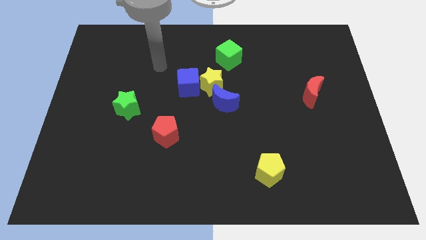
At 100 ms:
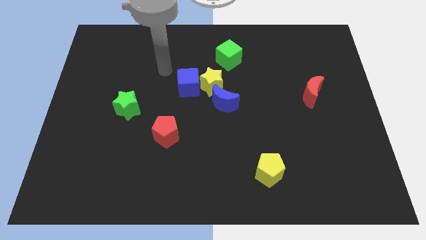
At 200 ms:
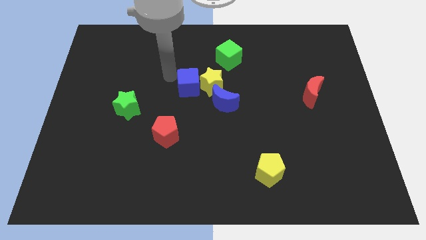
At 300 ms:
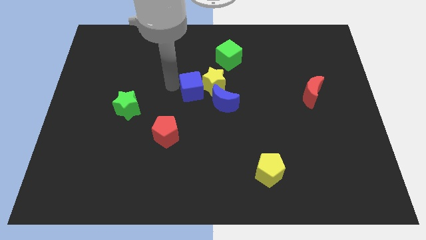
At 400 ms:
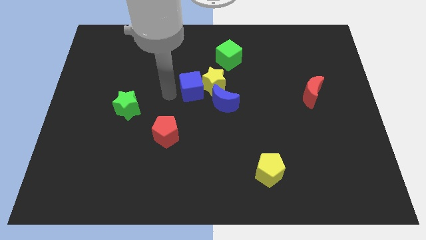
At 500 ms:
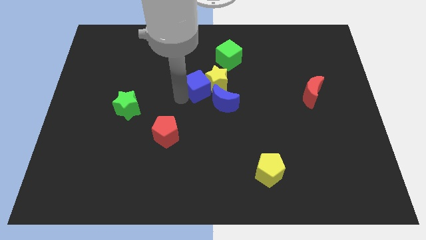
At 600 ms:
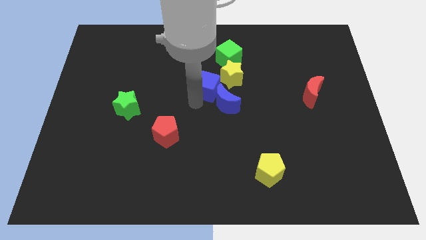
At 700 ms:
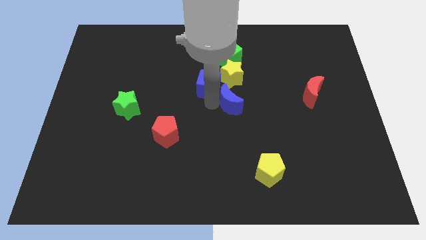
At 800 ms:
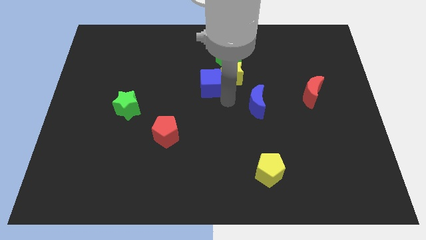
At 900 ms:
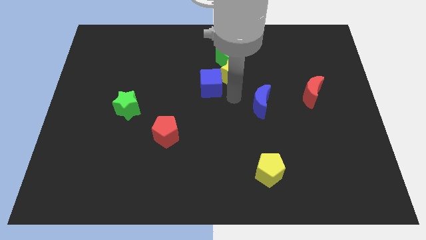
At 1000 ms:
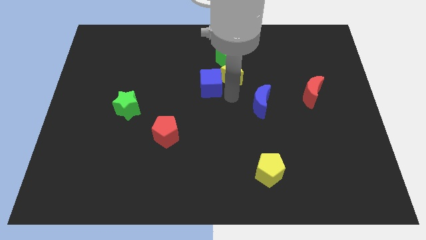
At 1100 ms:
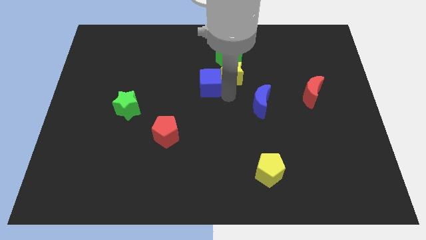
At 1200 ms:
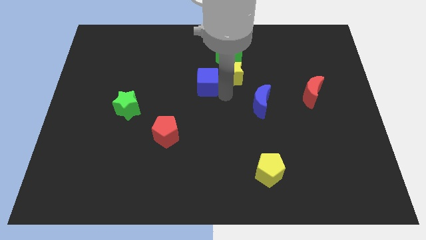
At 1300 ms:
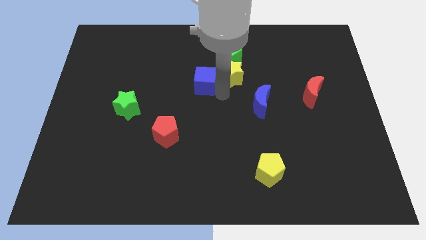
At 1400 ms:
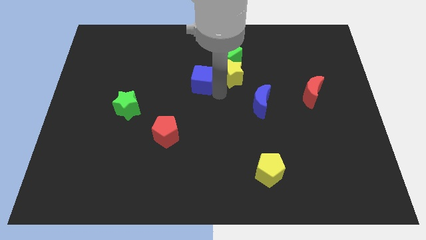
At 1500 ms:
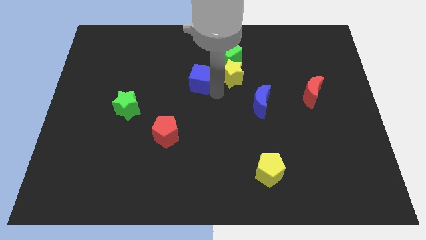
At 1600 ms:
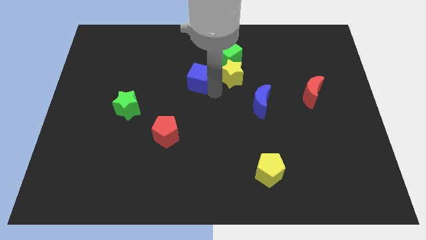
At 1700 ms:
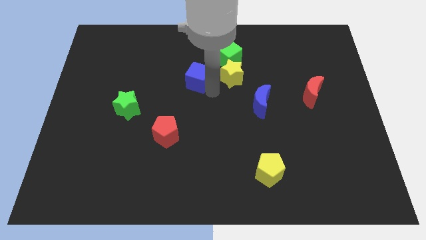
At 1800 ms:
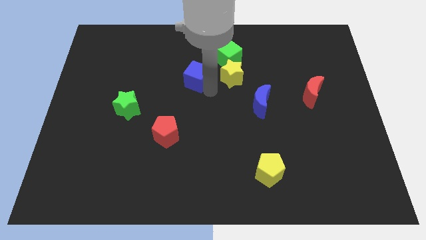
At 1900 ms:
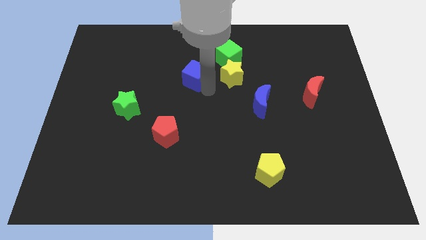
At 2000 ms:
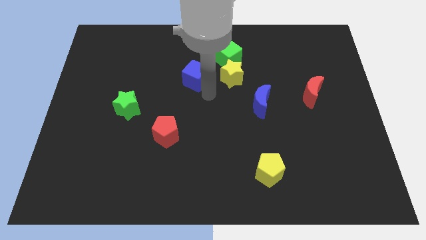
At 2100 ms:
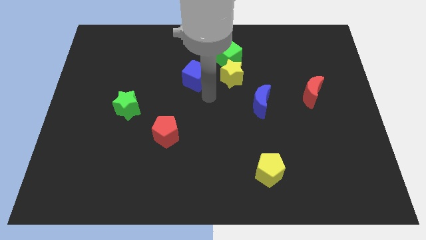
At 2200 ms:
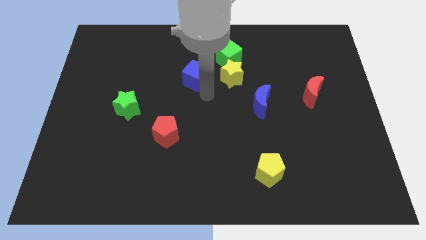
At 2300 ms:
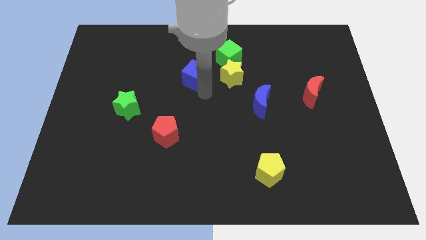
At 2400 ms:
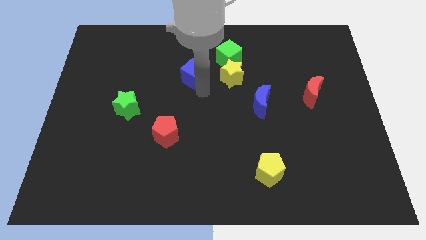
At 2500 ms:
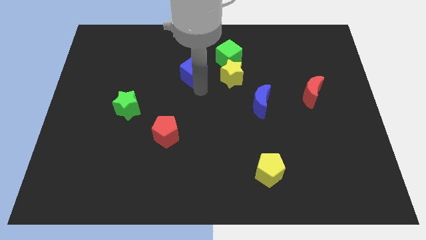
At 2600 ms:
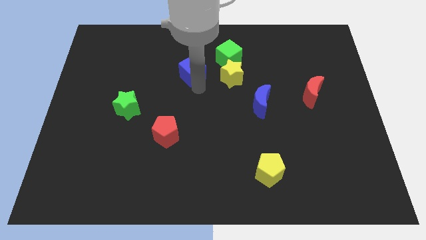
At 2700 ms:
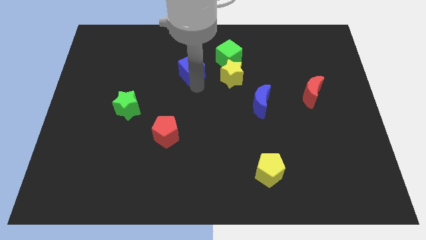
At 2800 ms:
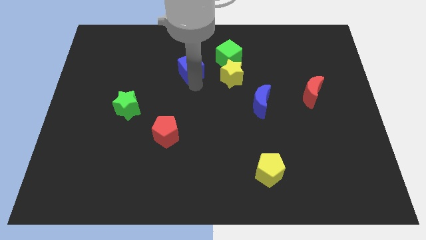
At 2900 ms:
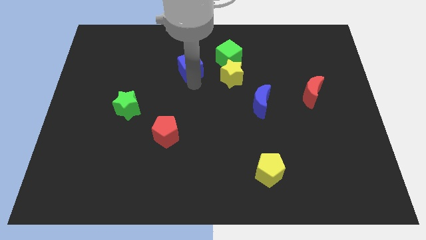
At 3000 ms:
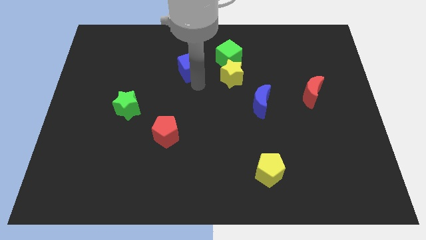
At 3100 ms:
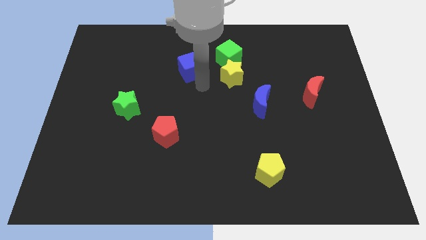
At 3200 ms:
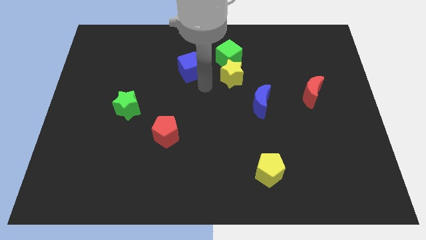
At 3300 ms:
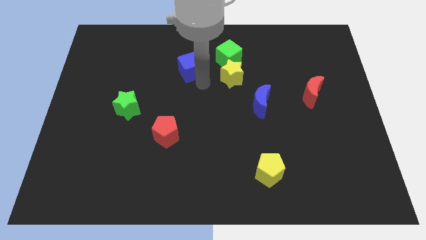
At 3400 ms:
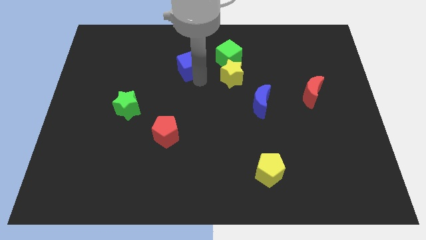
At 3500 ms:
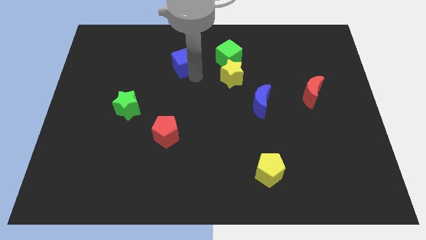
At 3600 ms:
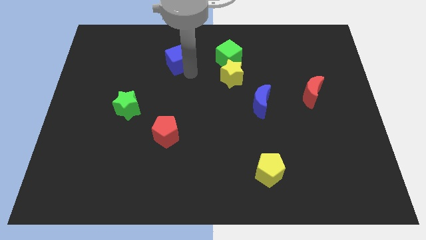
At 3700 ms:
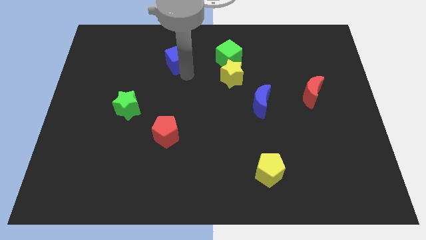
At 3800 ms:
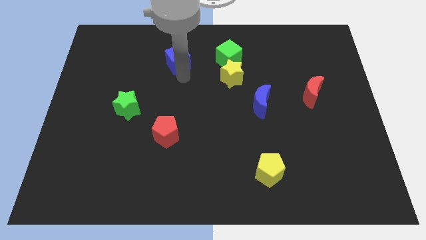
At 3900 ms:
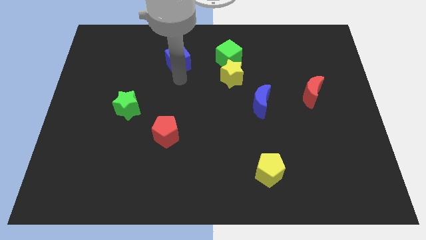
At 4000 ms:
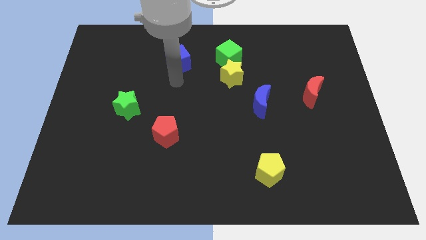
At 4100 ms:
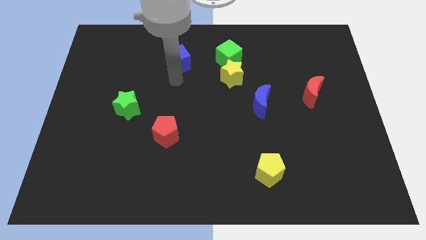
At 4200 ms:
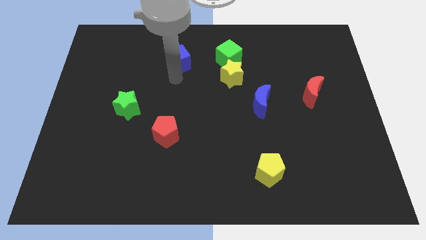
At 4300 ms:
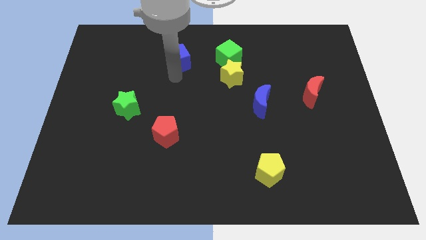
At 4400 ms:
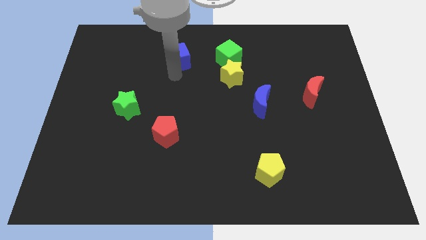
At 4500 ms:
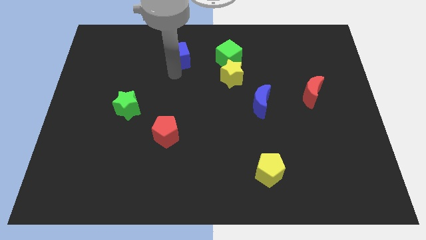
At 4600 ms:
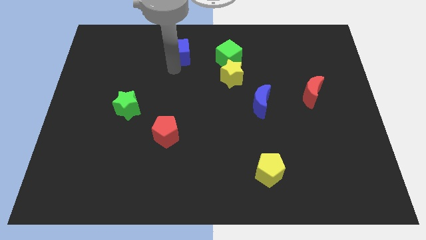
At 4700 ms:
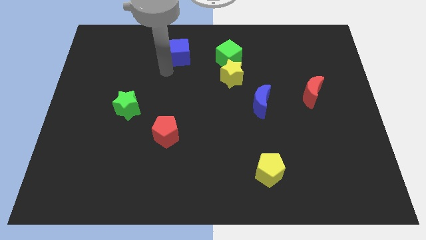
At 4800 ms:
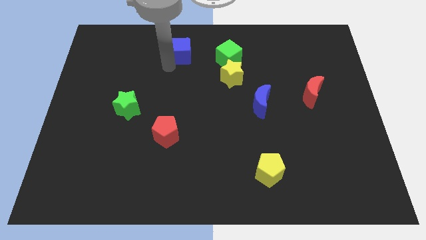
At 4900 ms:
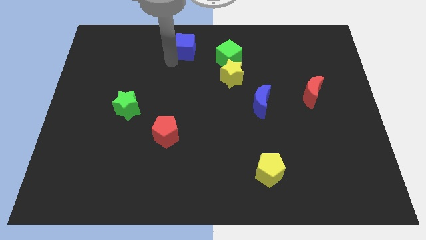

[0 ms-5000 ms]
slide the blue cube to the top side

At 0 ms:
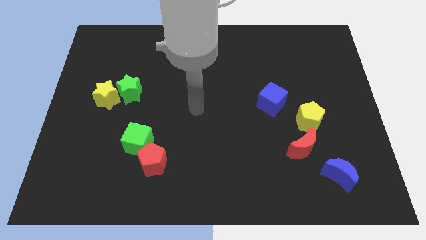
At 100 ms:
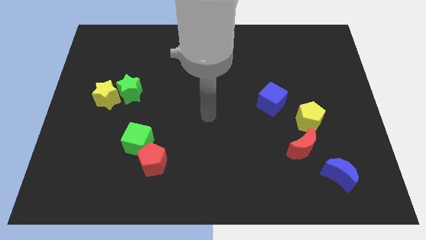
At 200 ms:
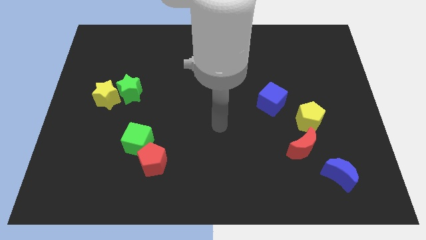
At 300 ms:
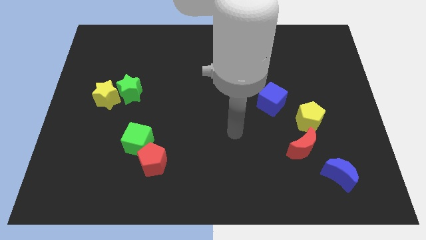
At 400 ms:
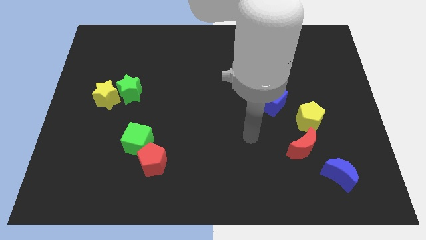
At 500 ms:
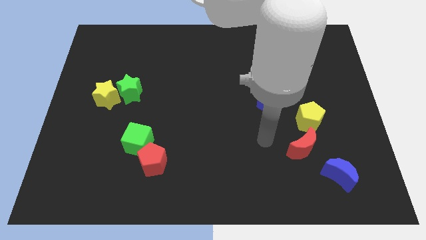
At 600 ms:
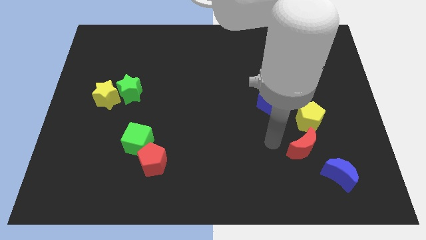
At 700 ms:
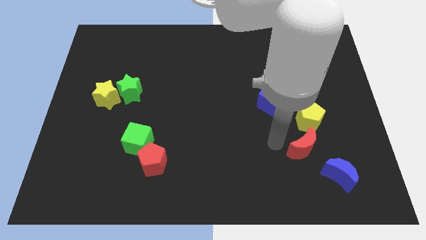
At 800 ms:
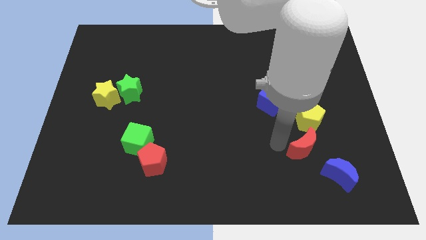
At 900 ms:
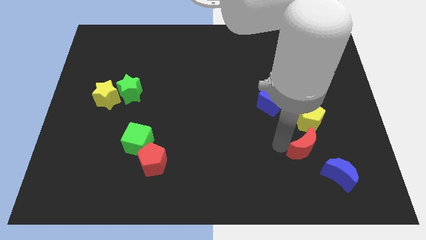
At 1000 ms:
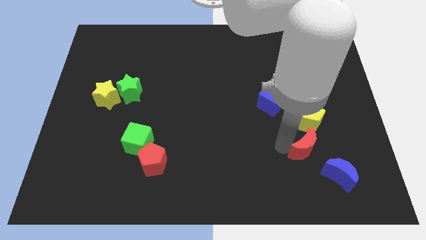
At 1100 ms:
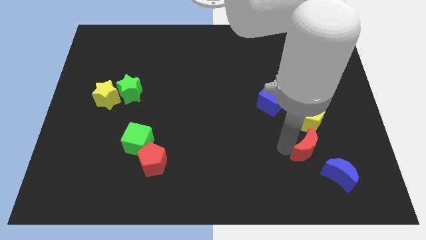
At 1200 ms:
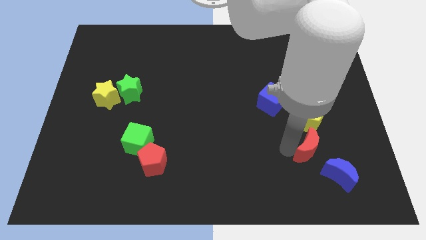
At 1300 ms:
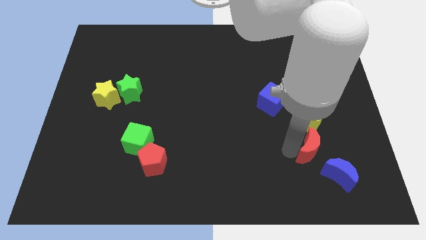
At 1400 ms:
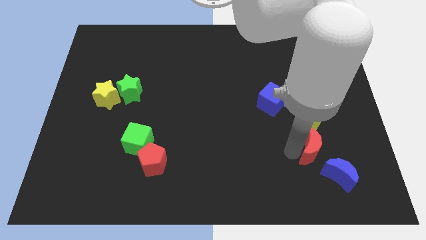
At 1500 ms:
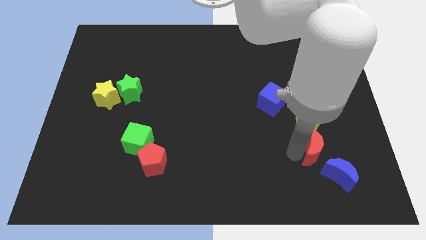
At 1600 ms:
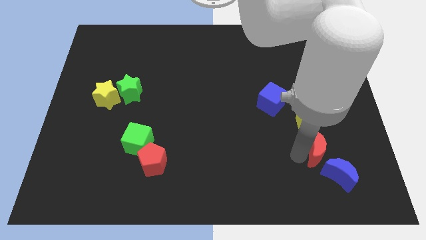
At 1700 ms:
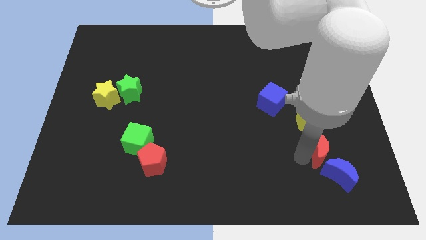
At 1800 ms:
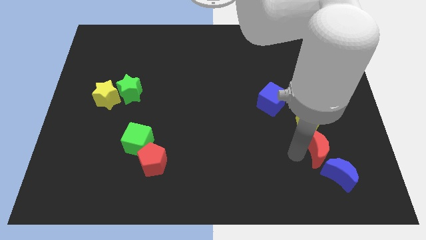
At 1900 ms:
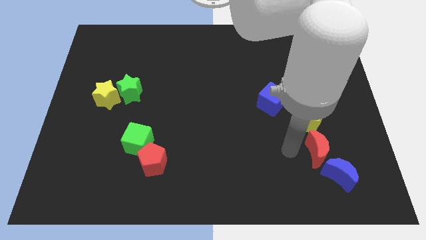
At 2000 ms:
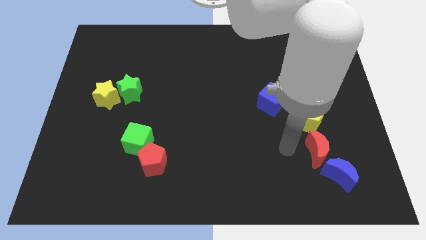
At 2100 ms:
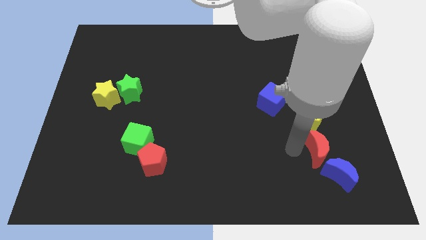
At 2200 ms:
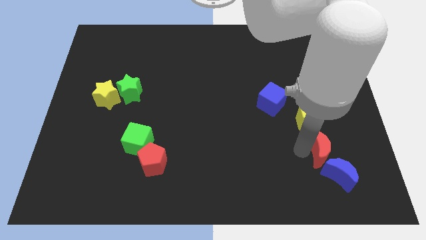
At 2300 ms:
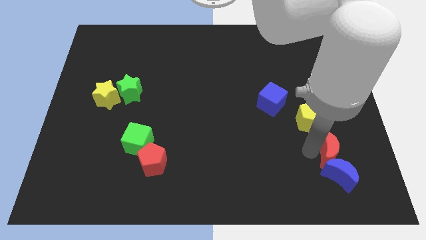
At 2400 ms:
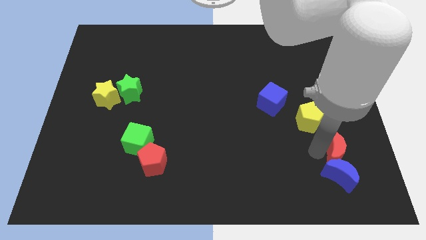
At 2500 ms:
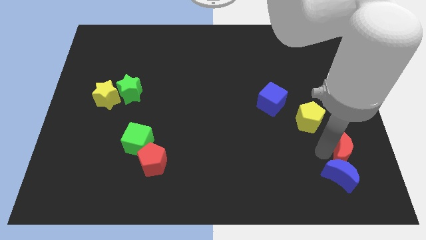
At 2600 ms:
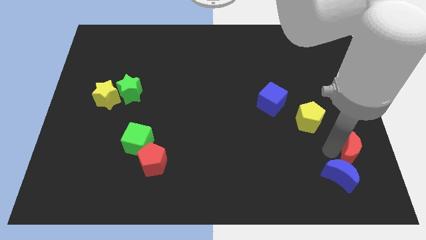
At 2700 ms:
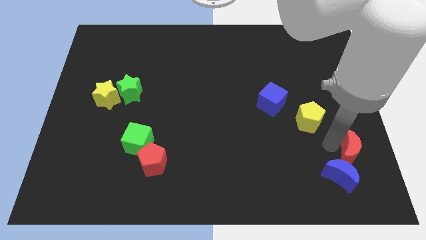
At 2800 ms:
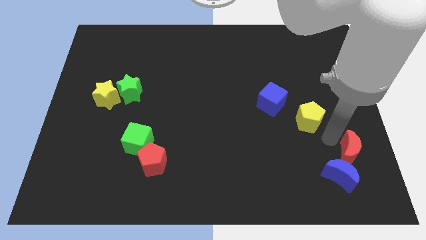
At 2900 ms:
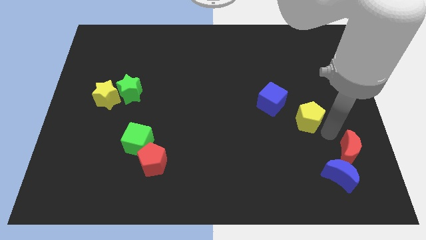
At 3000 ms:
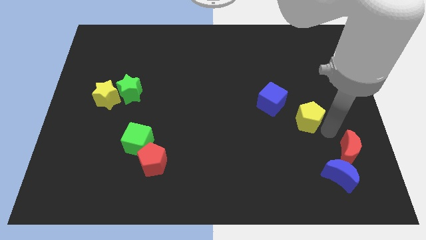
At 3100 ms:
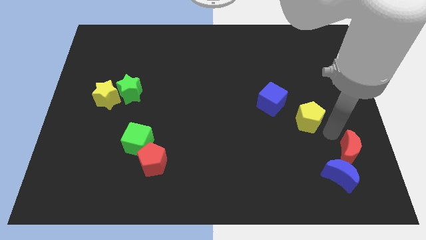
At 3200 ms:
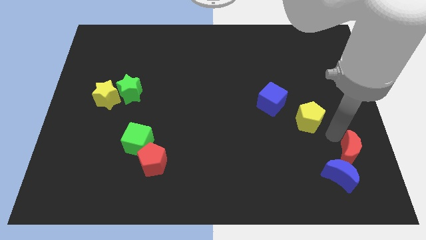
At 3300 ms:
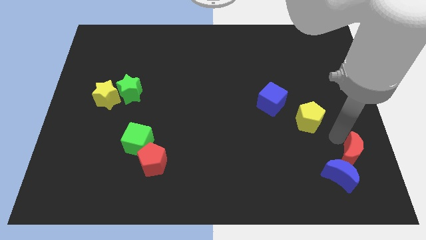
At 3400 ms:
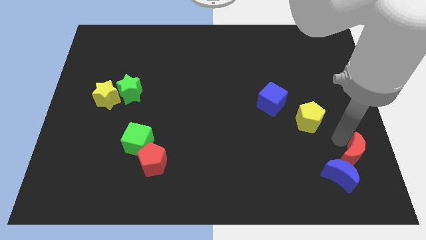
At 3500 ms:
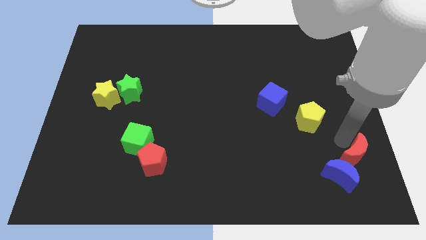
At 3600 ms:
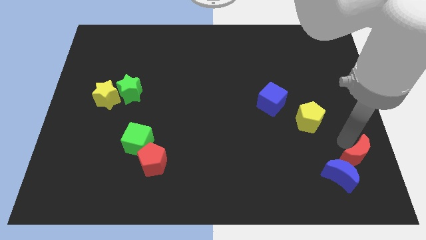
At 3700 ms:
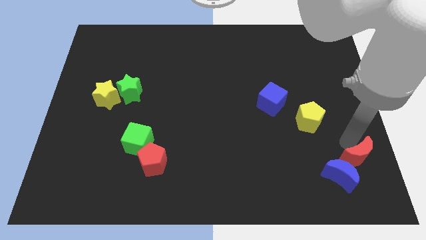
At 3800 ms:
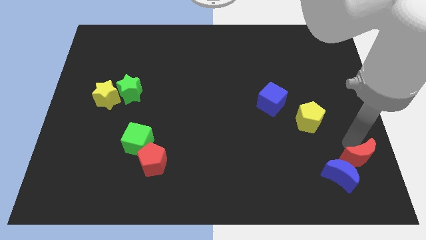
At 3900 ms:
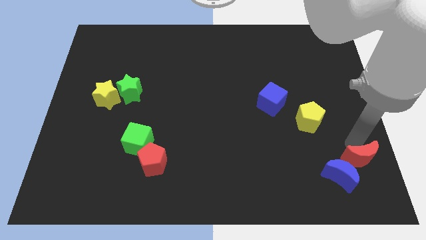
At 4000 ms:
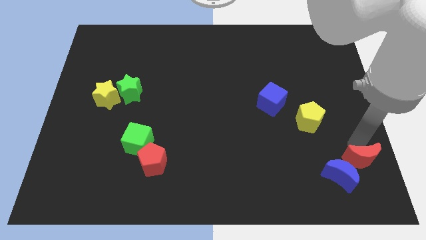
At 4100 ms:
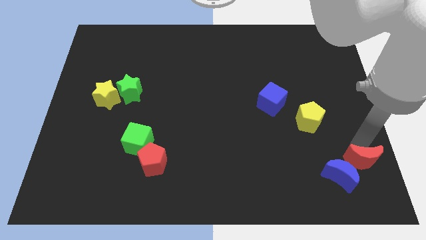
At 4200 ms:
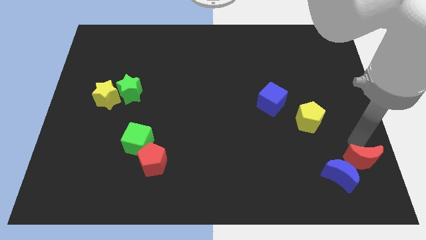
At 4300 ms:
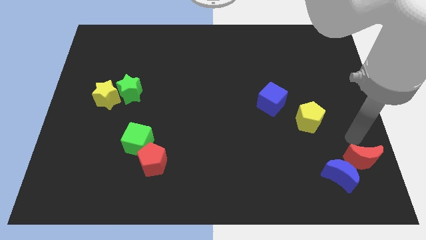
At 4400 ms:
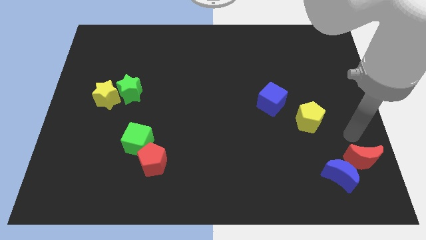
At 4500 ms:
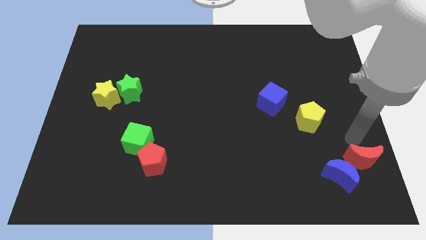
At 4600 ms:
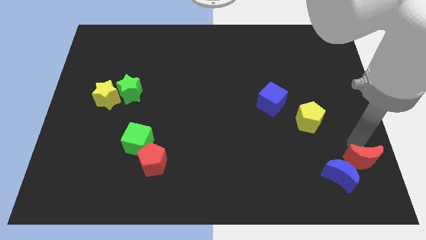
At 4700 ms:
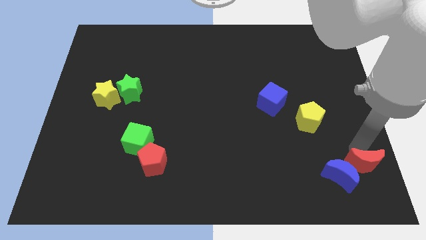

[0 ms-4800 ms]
put the red moon to the bottom right corner
